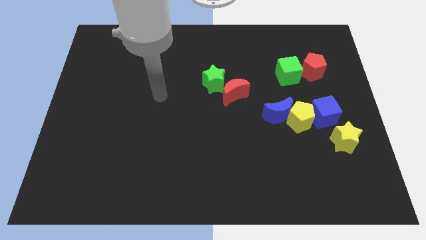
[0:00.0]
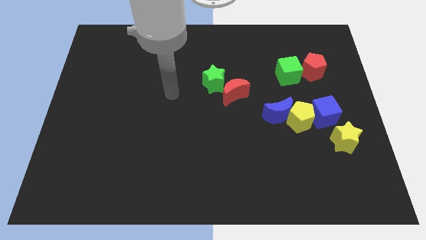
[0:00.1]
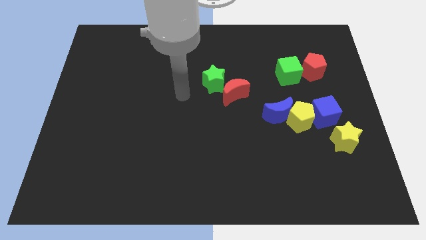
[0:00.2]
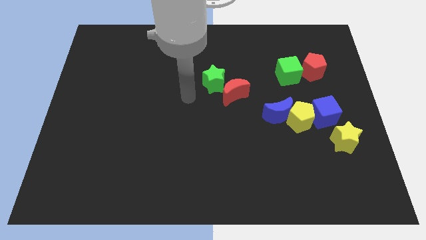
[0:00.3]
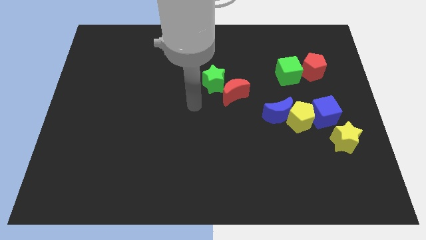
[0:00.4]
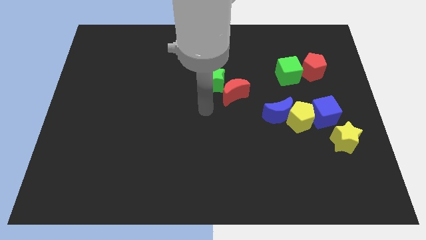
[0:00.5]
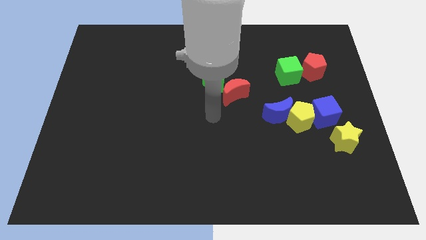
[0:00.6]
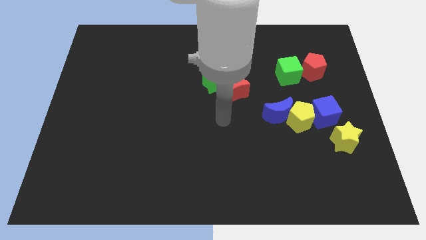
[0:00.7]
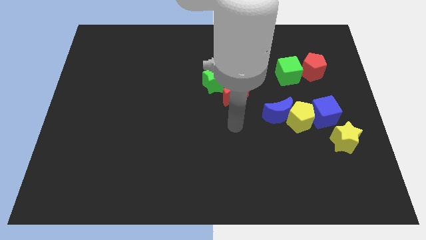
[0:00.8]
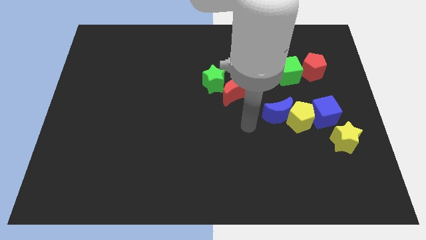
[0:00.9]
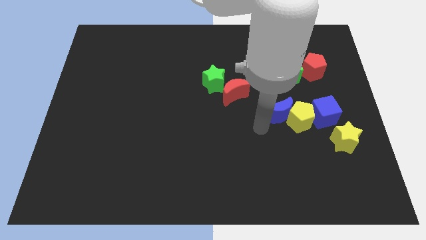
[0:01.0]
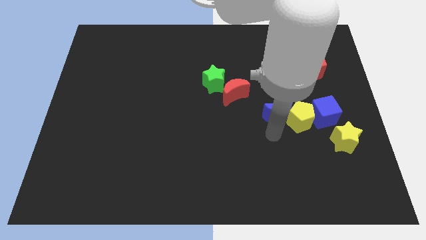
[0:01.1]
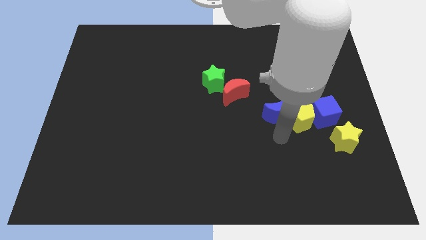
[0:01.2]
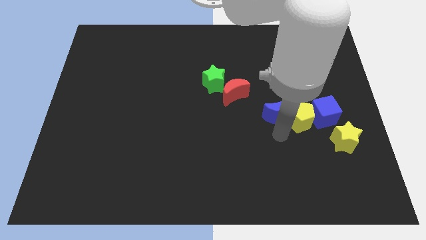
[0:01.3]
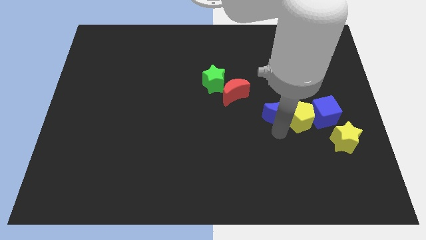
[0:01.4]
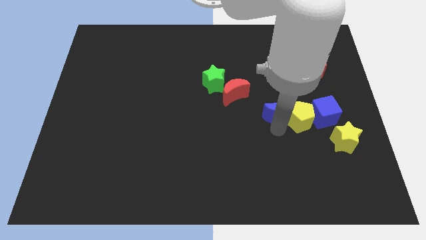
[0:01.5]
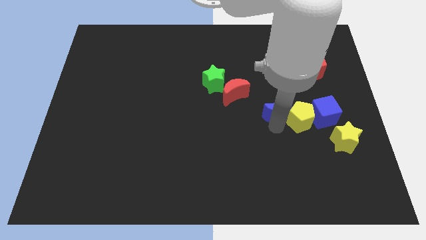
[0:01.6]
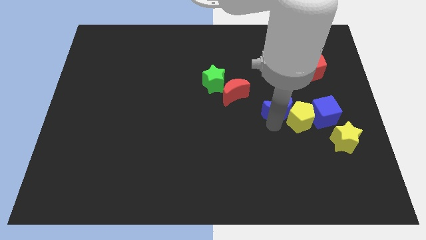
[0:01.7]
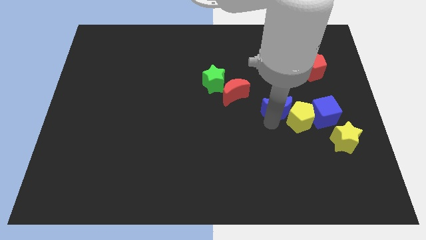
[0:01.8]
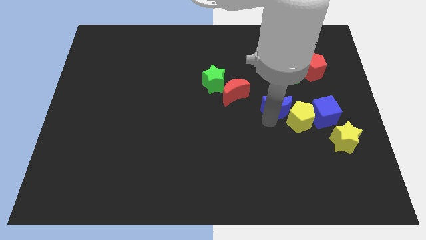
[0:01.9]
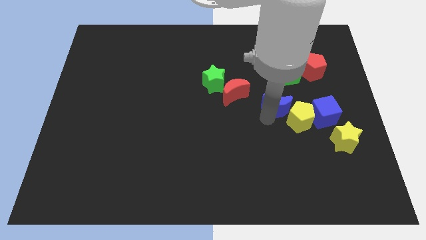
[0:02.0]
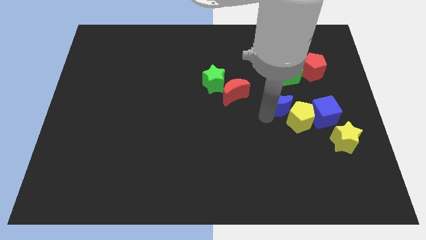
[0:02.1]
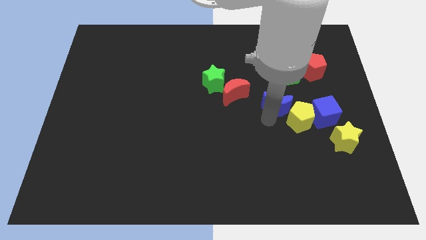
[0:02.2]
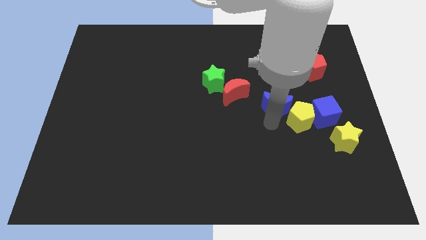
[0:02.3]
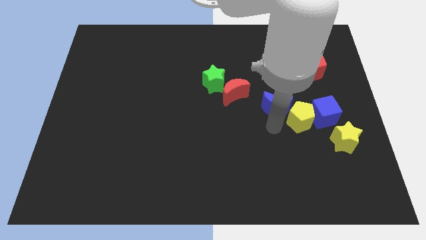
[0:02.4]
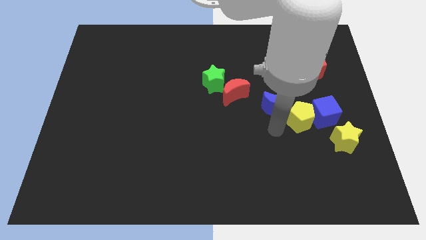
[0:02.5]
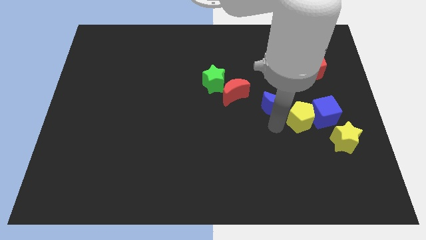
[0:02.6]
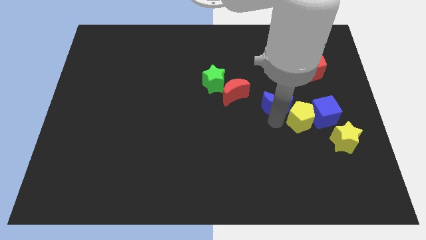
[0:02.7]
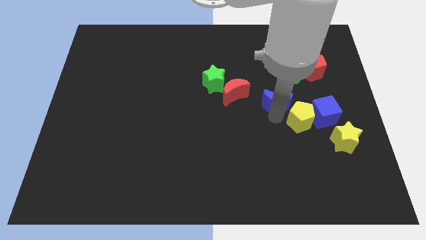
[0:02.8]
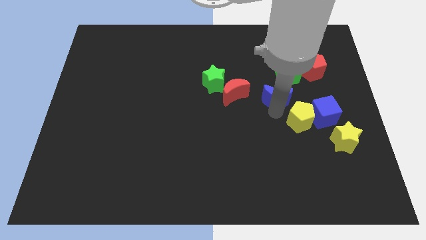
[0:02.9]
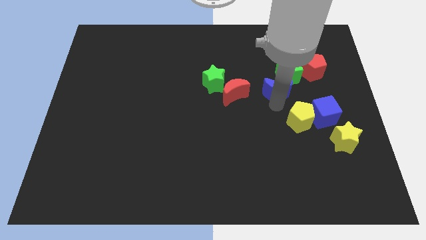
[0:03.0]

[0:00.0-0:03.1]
slightly move the blue moon upwards

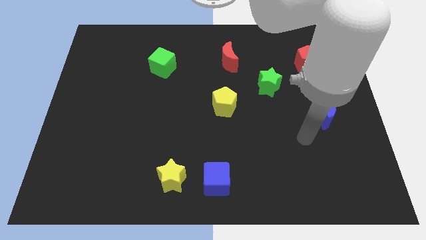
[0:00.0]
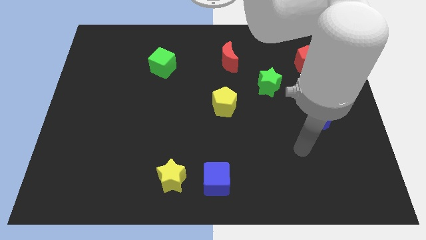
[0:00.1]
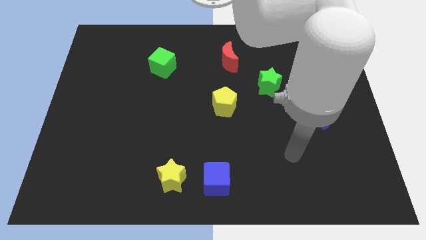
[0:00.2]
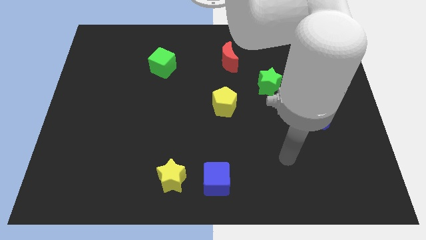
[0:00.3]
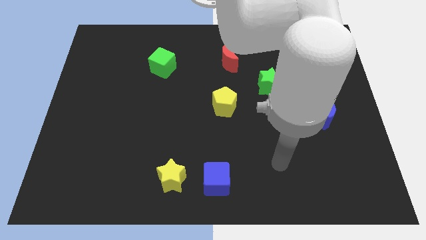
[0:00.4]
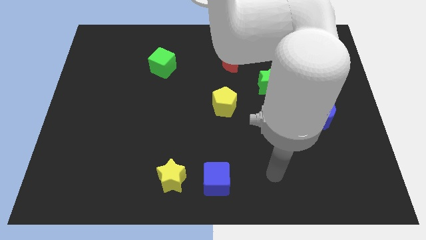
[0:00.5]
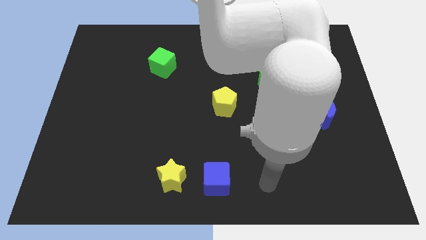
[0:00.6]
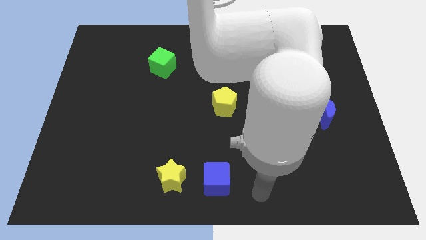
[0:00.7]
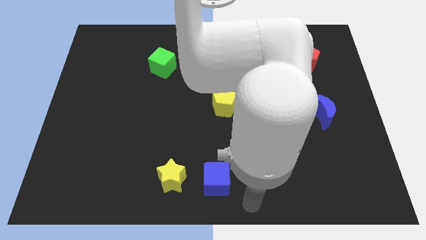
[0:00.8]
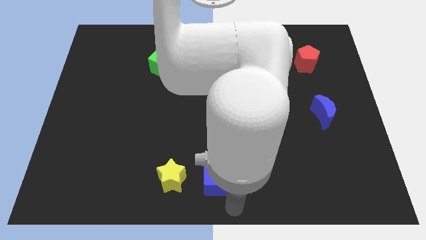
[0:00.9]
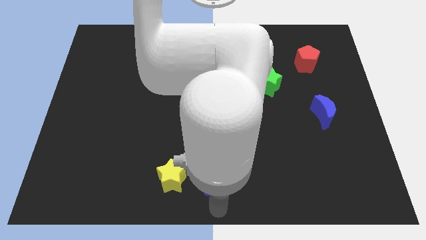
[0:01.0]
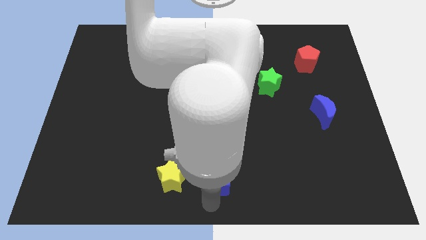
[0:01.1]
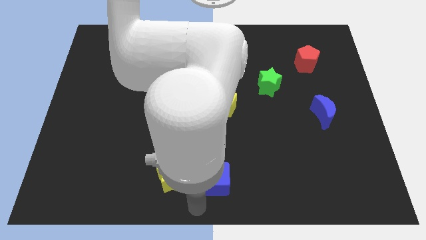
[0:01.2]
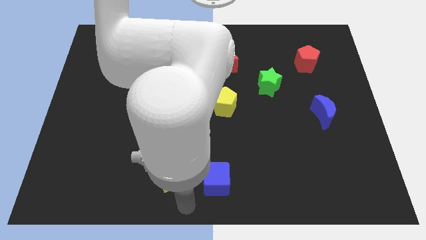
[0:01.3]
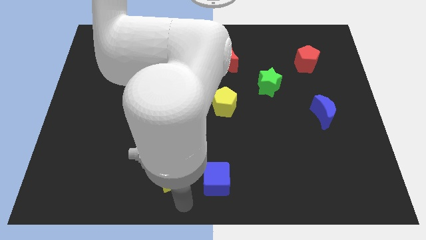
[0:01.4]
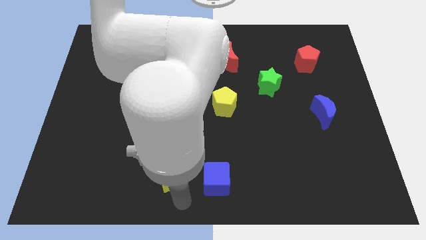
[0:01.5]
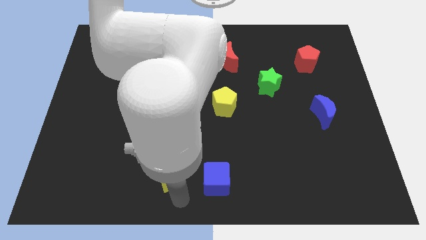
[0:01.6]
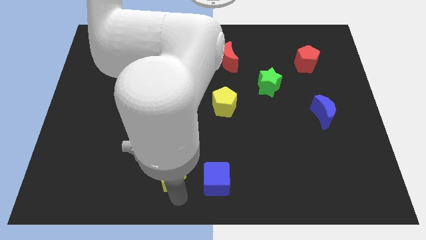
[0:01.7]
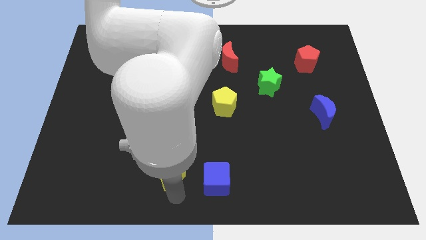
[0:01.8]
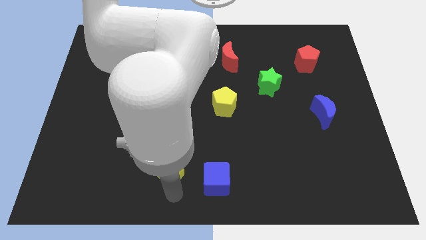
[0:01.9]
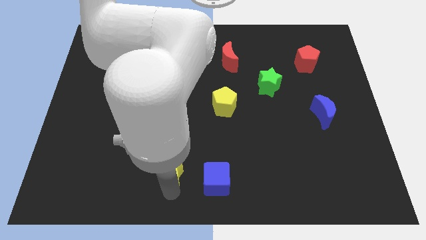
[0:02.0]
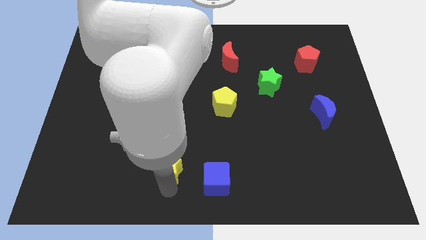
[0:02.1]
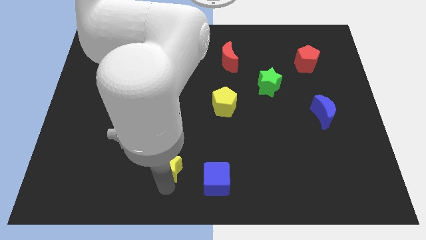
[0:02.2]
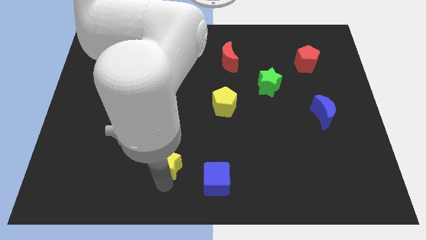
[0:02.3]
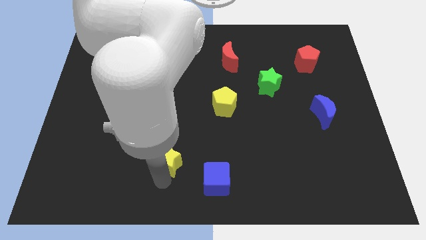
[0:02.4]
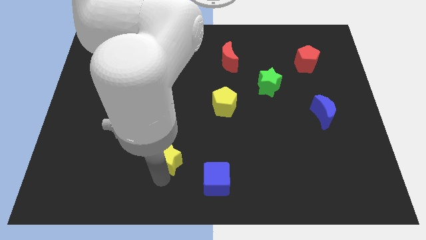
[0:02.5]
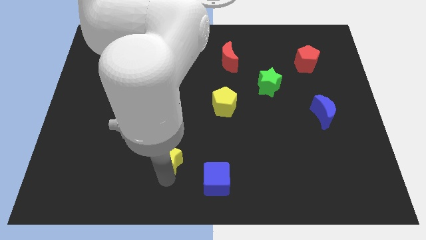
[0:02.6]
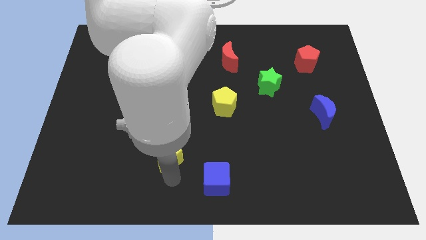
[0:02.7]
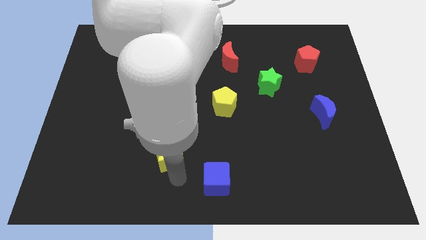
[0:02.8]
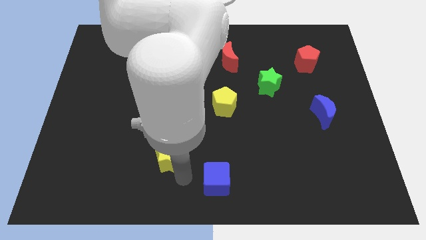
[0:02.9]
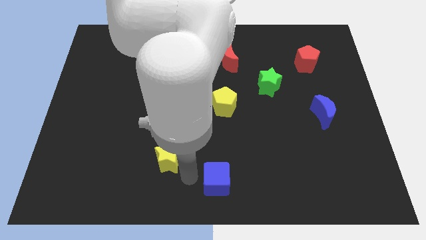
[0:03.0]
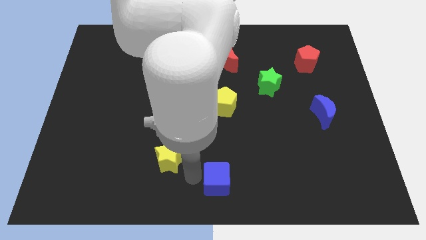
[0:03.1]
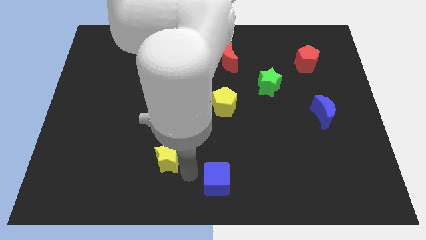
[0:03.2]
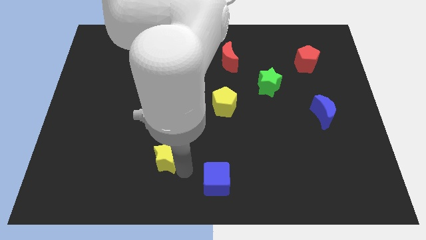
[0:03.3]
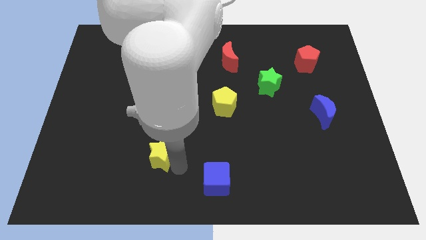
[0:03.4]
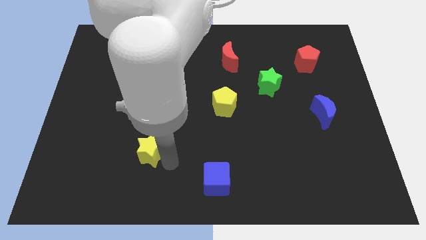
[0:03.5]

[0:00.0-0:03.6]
slightly slide the yellow star up and then to the left

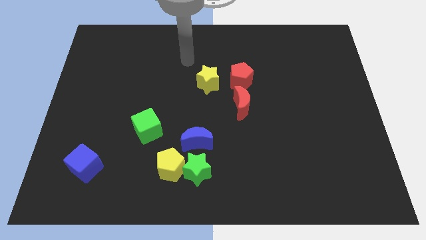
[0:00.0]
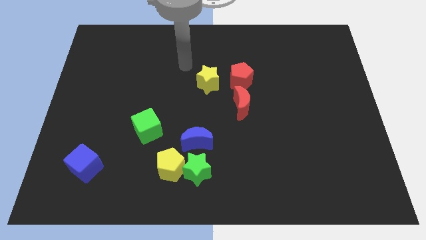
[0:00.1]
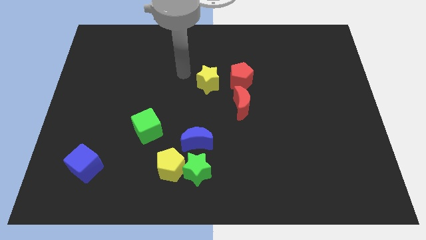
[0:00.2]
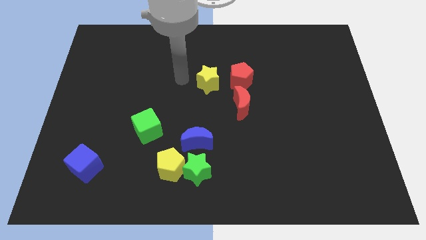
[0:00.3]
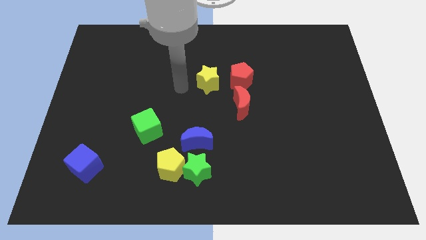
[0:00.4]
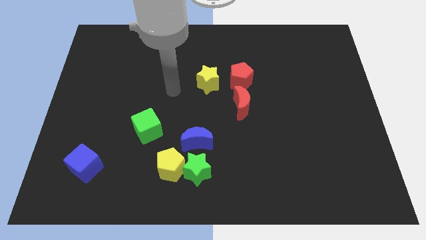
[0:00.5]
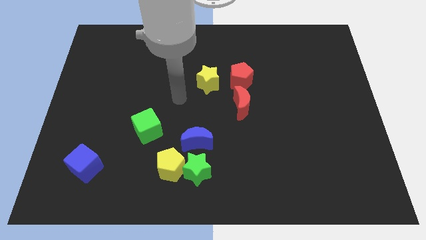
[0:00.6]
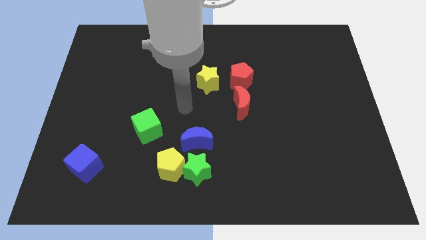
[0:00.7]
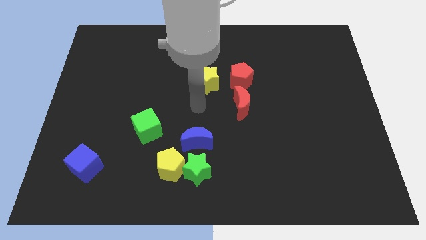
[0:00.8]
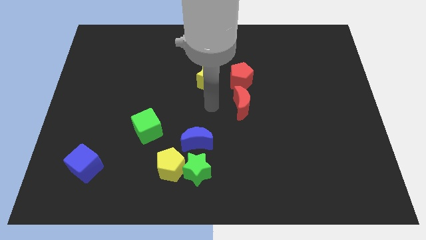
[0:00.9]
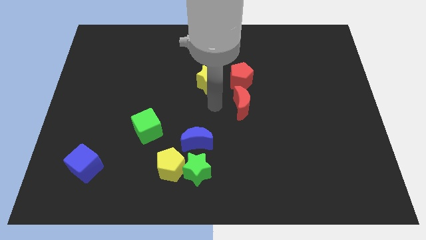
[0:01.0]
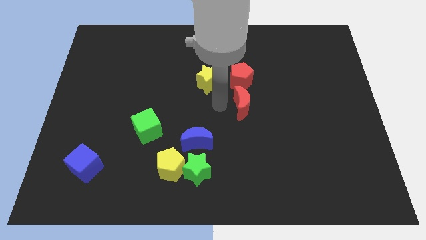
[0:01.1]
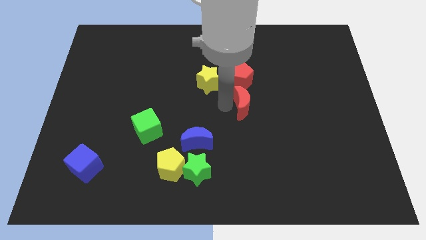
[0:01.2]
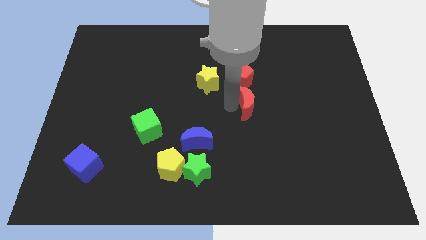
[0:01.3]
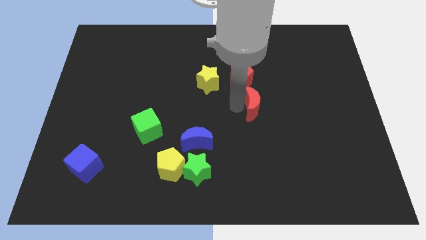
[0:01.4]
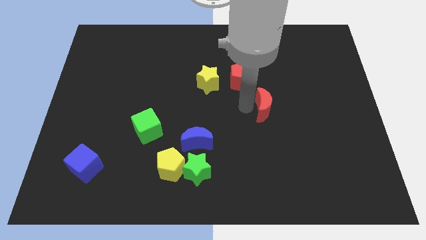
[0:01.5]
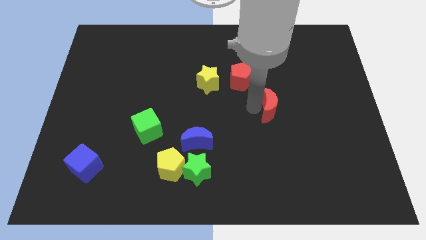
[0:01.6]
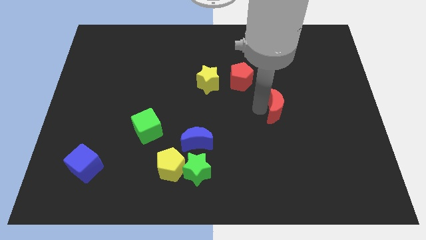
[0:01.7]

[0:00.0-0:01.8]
slightly slide the red moon right
